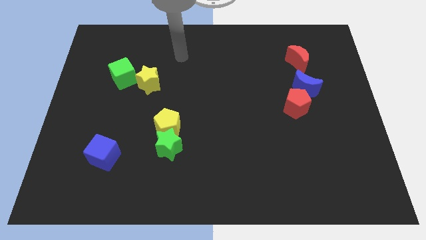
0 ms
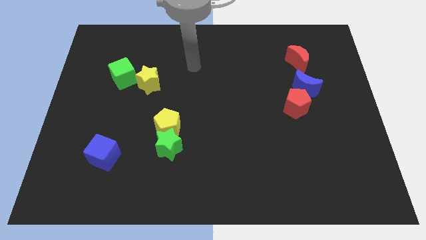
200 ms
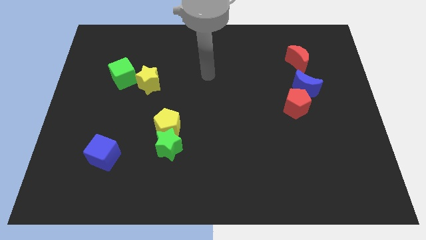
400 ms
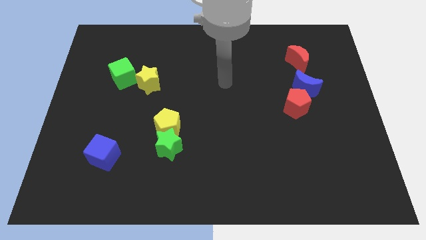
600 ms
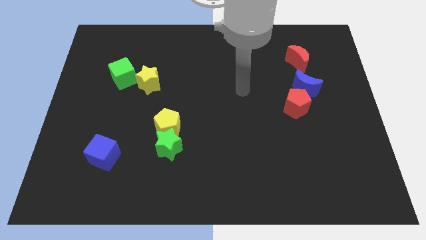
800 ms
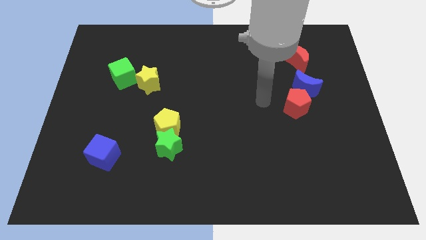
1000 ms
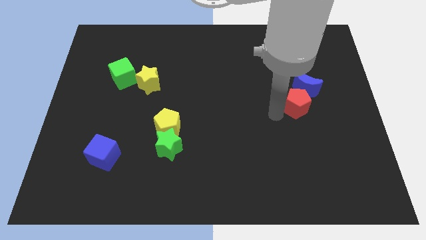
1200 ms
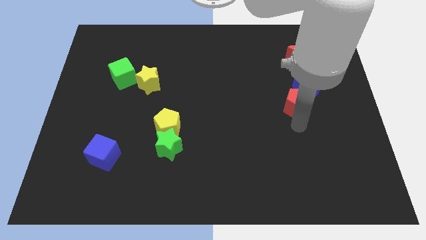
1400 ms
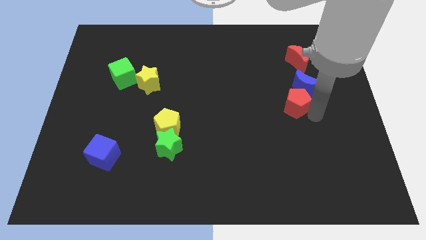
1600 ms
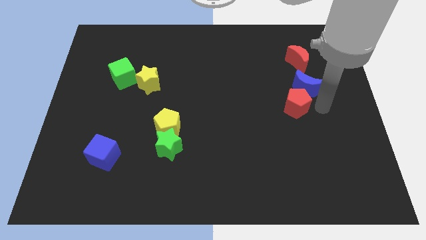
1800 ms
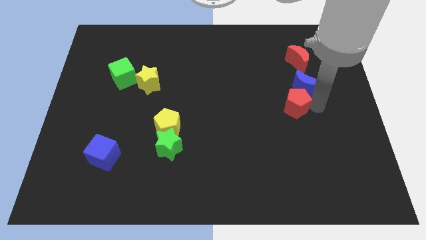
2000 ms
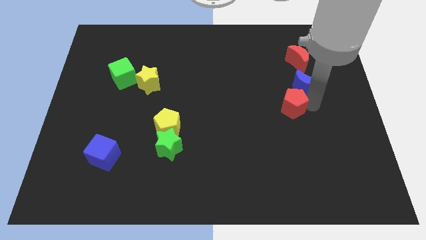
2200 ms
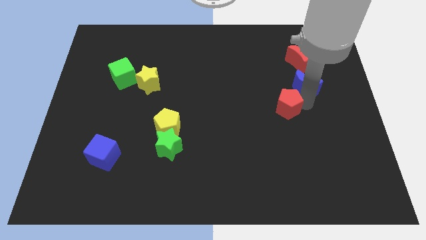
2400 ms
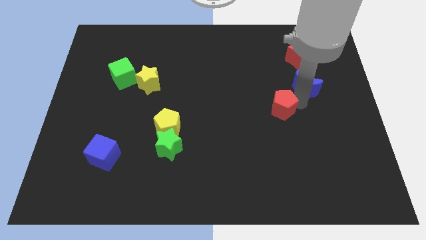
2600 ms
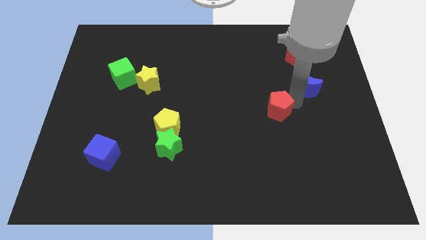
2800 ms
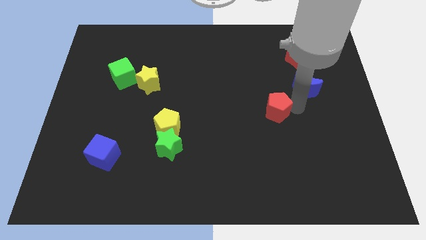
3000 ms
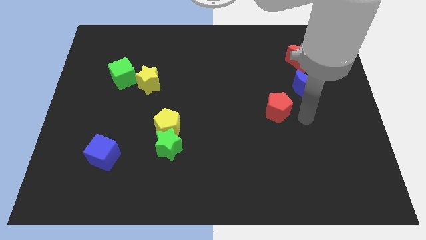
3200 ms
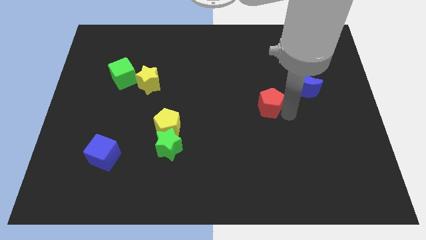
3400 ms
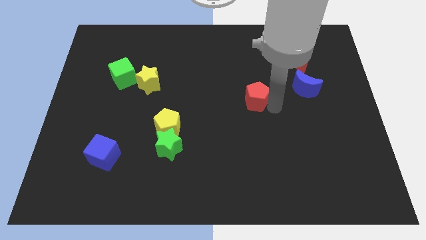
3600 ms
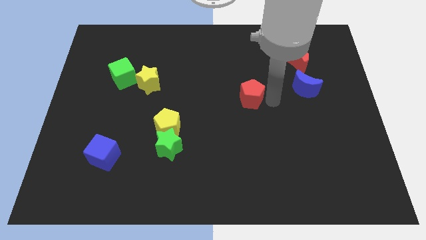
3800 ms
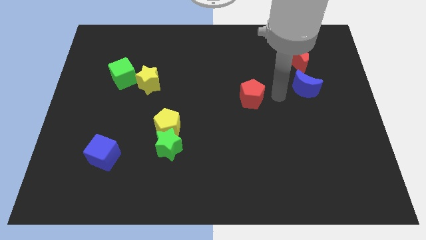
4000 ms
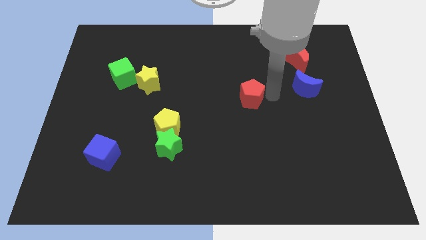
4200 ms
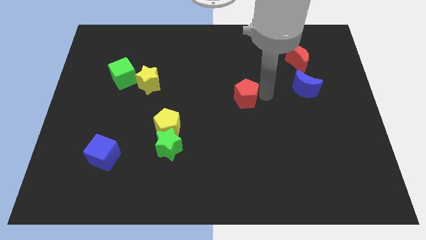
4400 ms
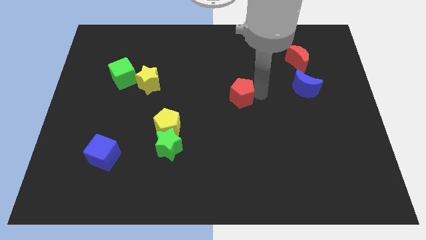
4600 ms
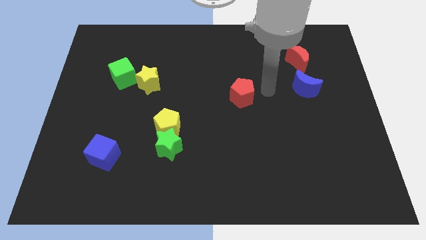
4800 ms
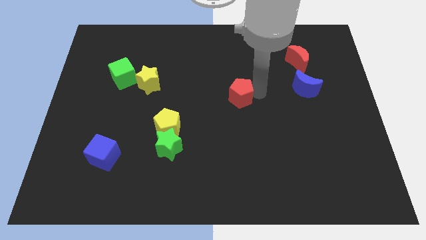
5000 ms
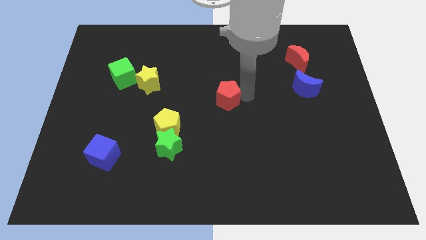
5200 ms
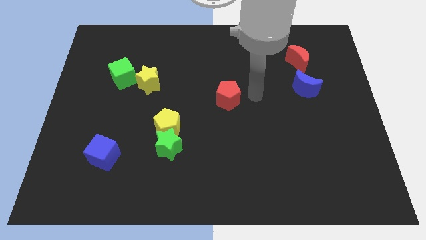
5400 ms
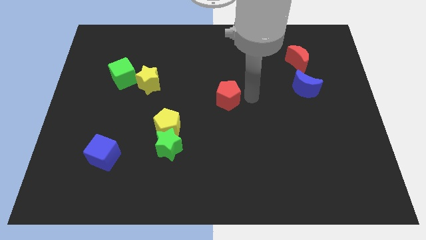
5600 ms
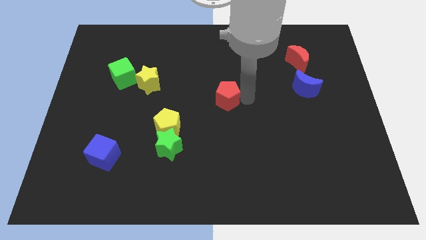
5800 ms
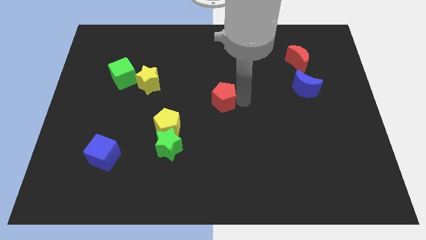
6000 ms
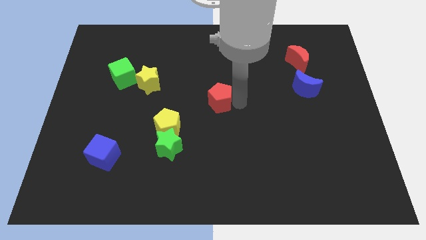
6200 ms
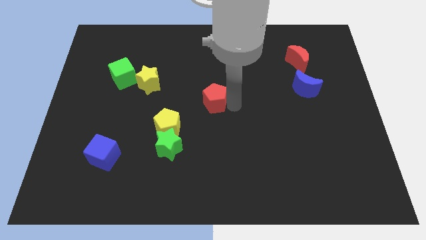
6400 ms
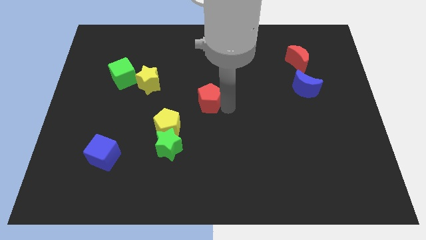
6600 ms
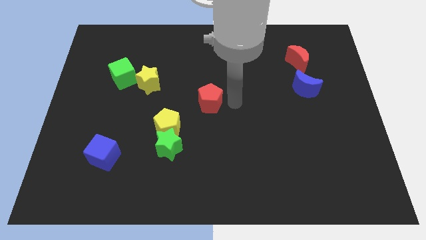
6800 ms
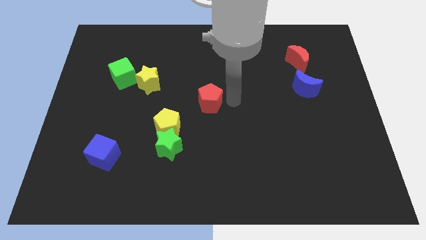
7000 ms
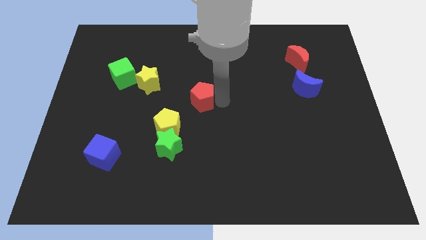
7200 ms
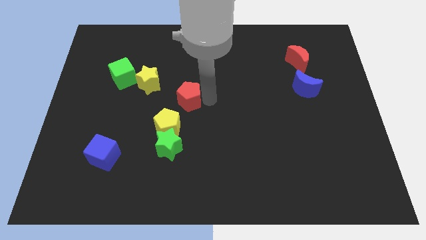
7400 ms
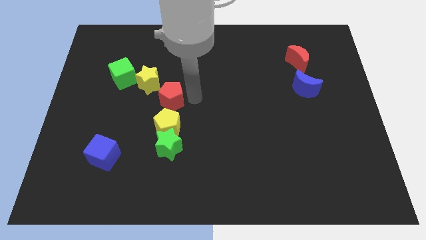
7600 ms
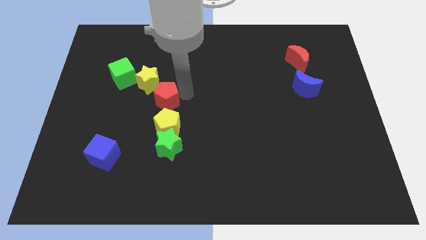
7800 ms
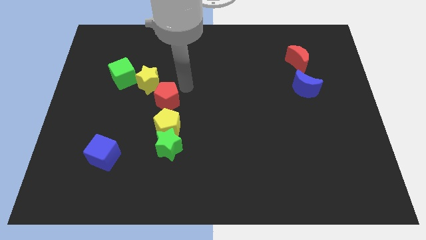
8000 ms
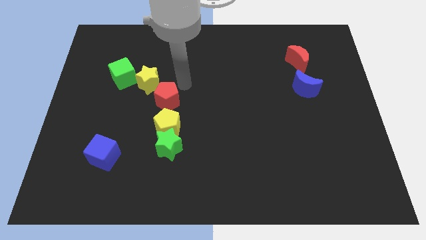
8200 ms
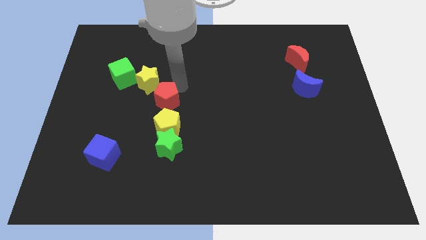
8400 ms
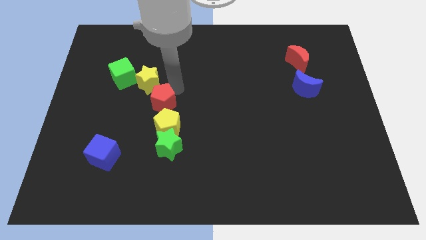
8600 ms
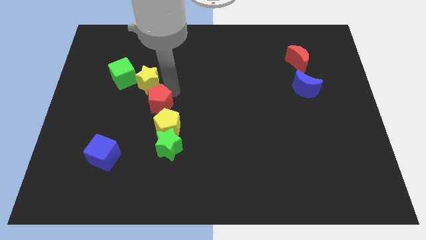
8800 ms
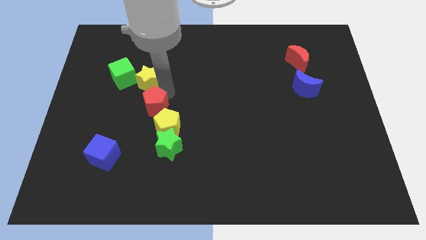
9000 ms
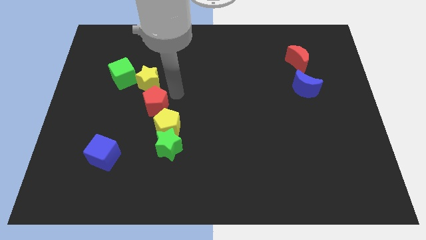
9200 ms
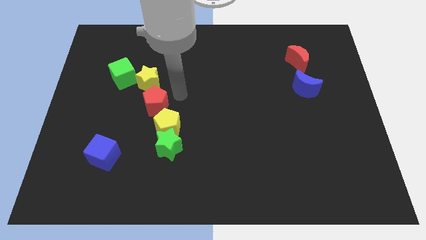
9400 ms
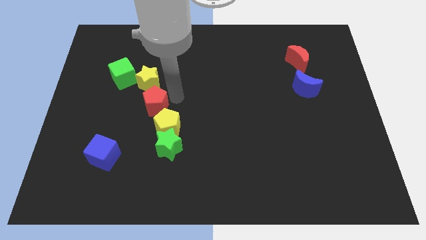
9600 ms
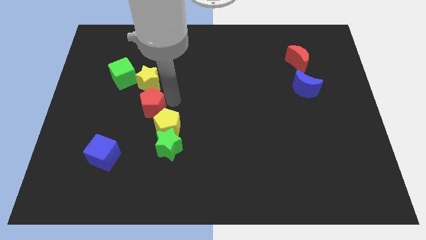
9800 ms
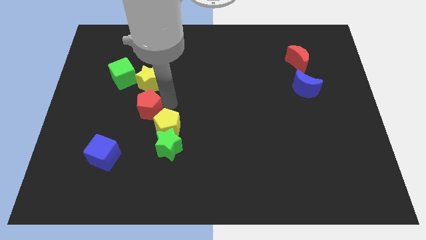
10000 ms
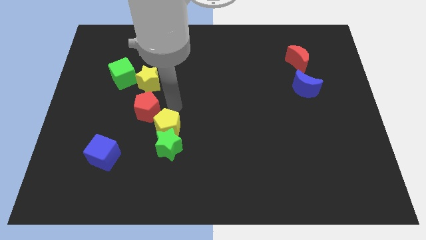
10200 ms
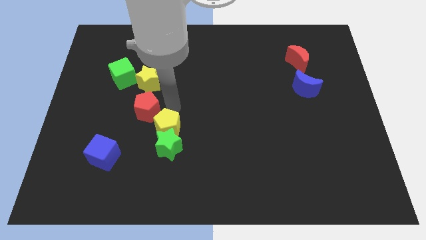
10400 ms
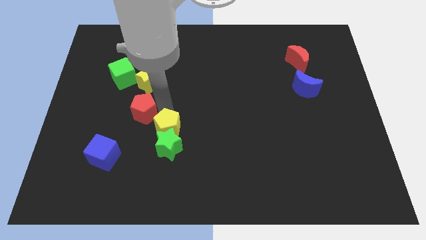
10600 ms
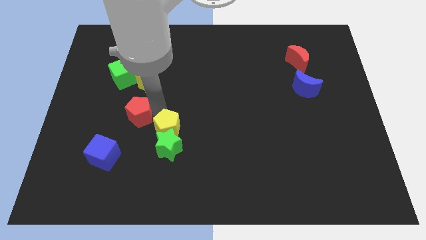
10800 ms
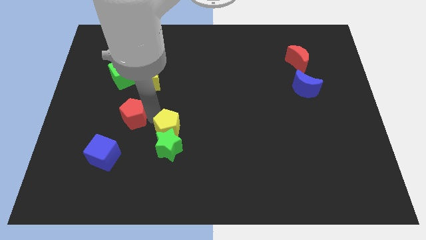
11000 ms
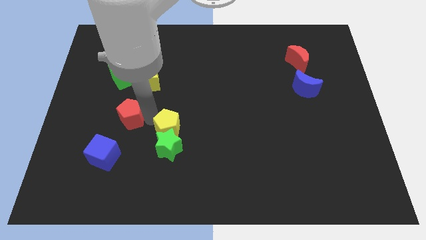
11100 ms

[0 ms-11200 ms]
put the red pentagon to the top side of the blue cube

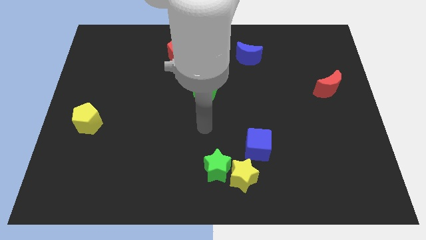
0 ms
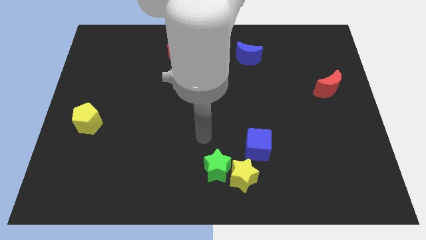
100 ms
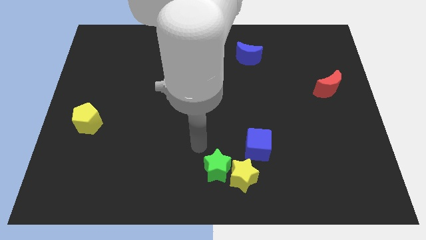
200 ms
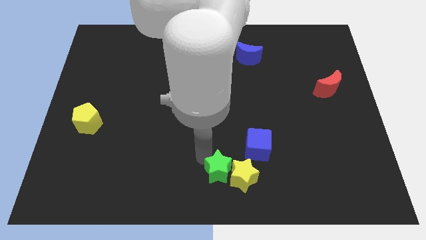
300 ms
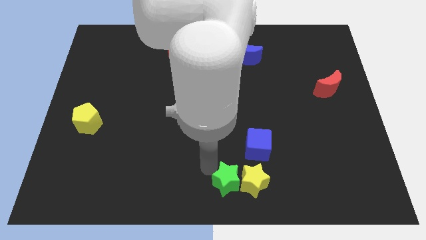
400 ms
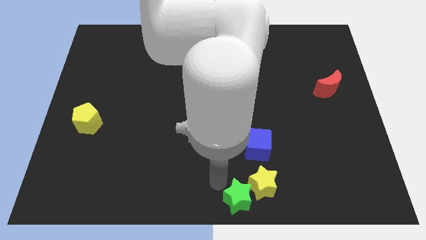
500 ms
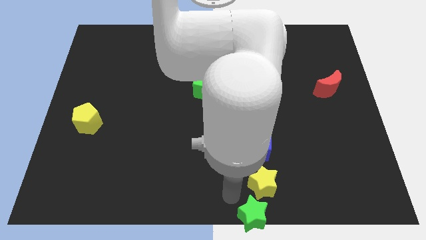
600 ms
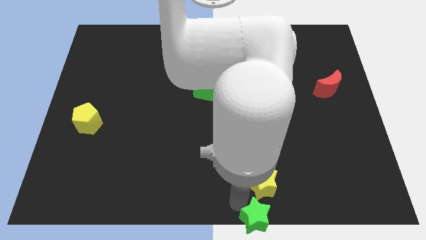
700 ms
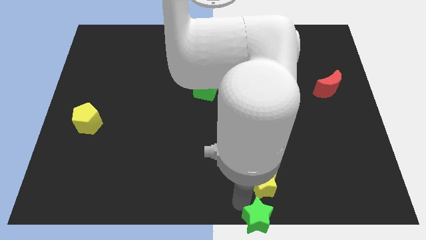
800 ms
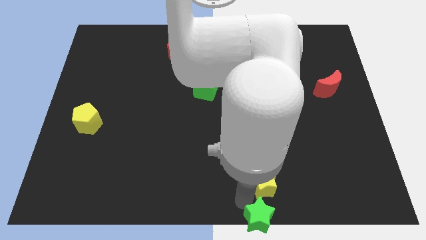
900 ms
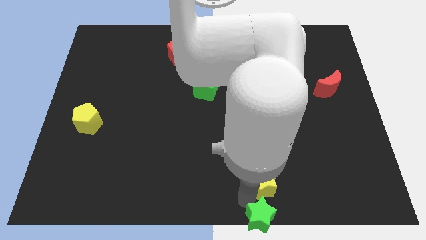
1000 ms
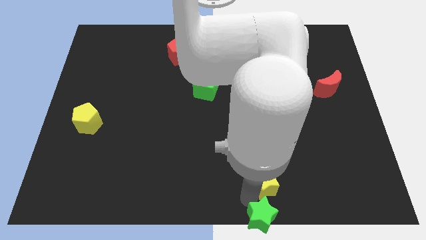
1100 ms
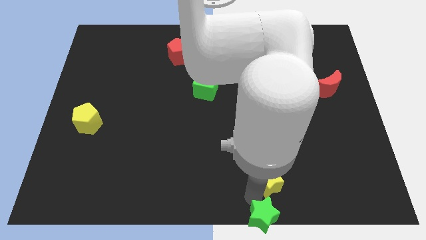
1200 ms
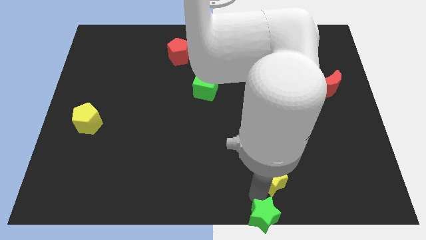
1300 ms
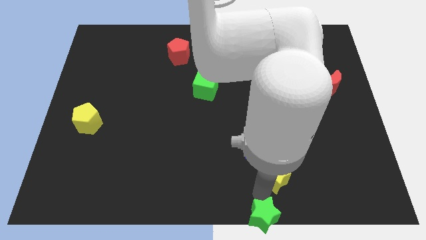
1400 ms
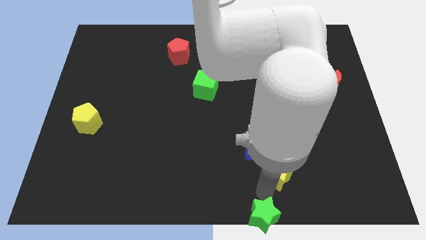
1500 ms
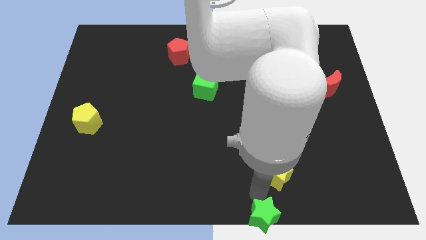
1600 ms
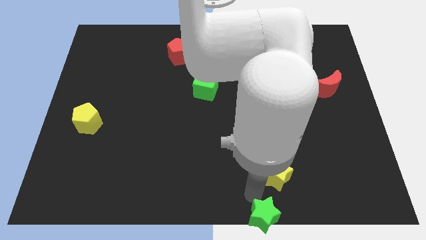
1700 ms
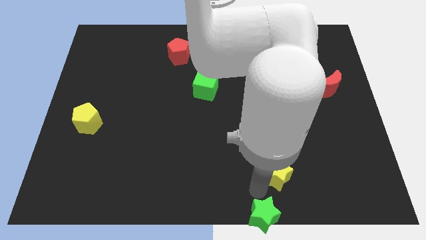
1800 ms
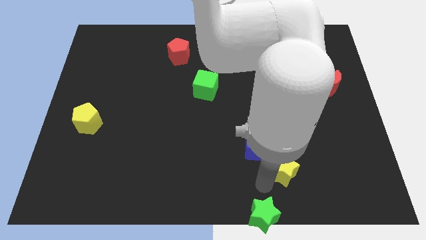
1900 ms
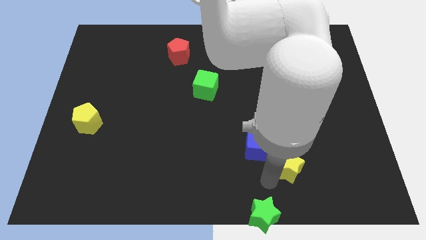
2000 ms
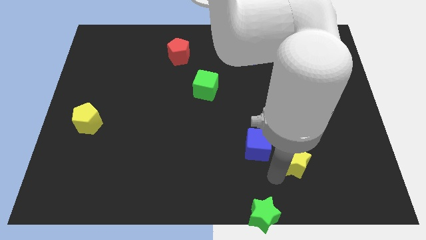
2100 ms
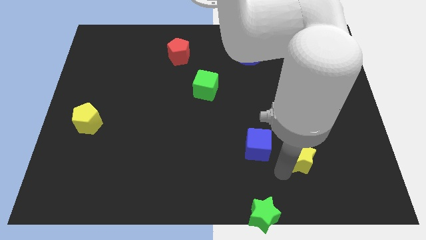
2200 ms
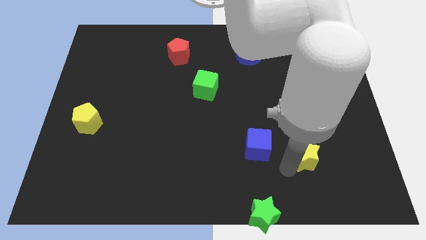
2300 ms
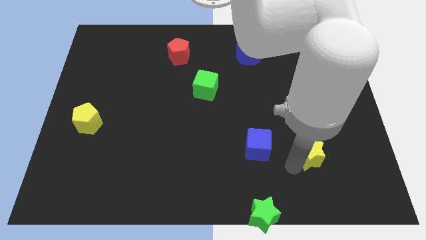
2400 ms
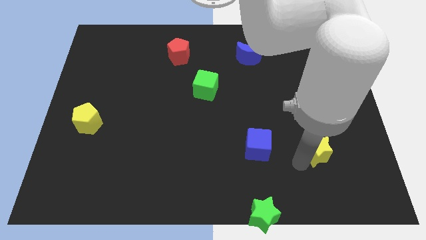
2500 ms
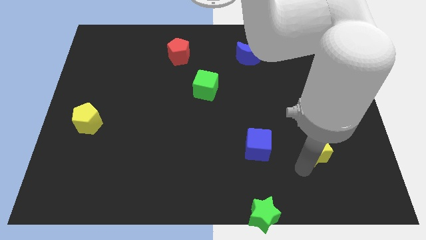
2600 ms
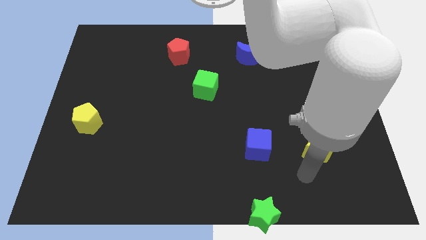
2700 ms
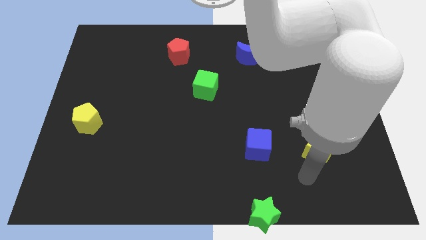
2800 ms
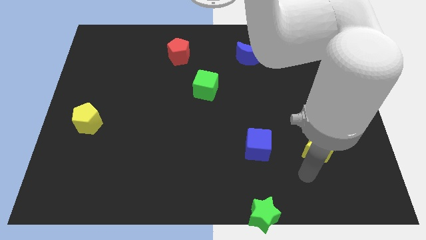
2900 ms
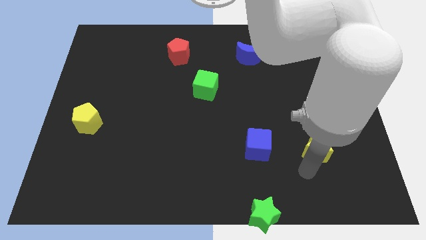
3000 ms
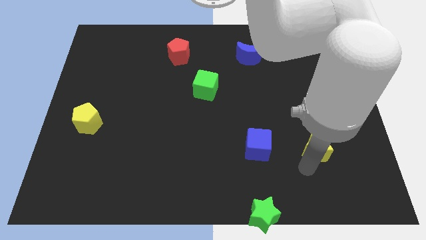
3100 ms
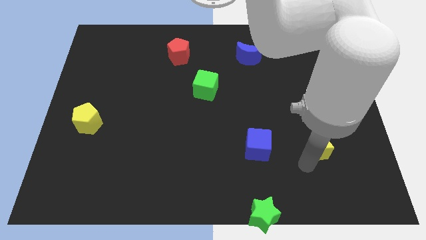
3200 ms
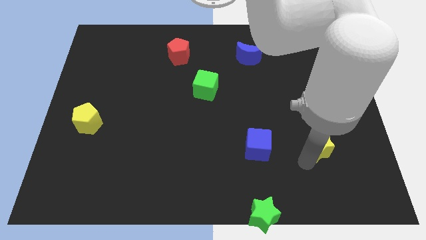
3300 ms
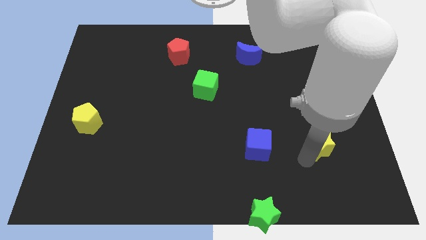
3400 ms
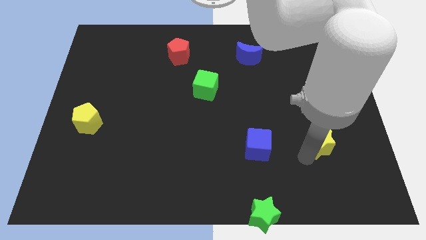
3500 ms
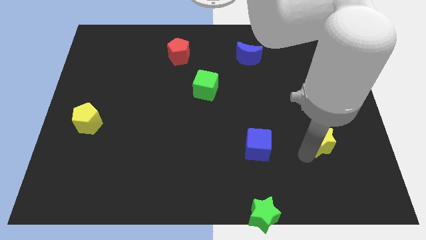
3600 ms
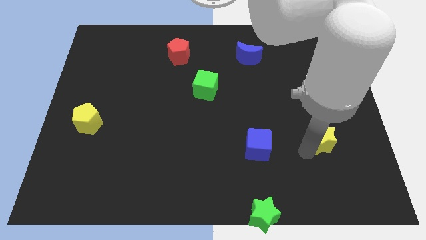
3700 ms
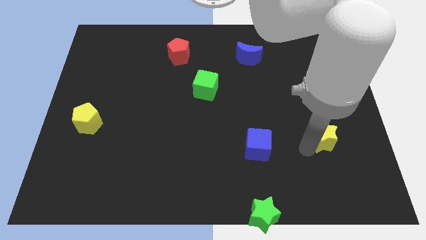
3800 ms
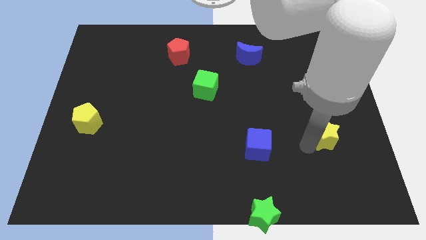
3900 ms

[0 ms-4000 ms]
push the yellow star to the bottom side of the red moon
